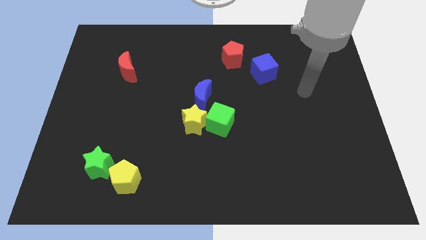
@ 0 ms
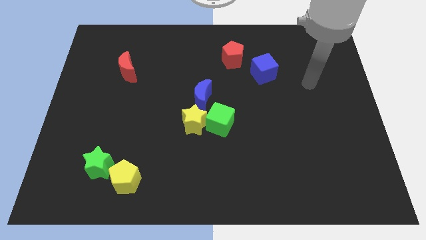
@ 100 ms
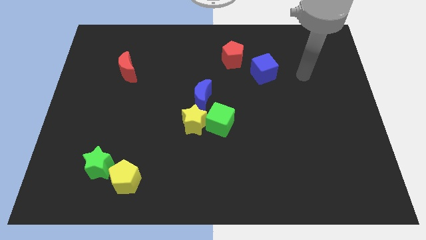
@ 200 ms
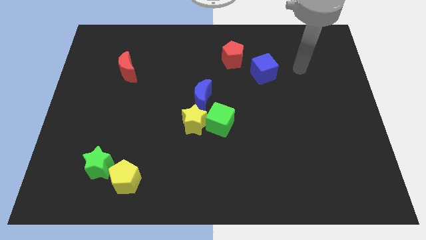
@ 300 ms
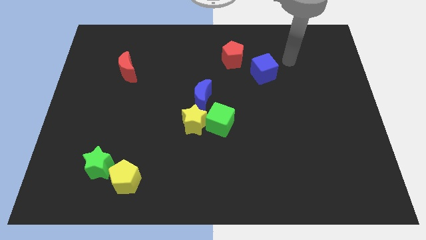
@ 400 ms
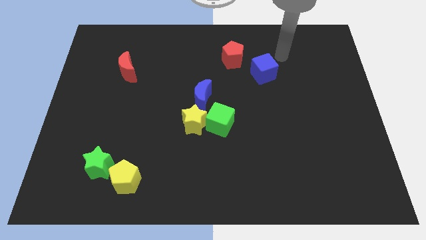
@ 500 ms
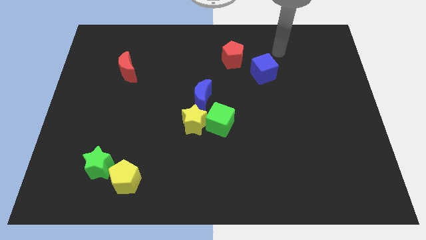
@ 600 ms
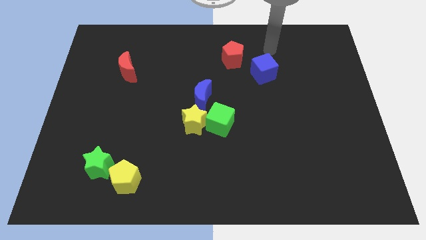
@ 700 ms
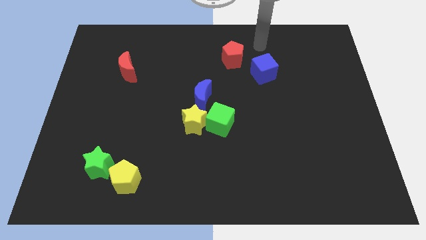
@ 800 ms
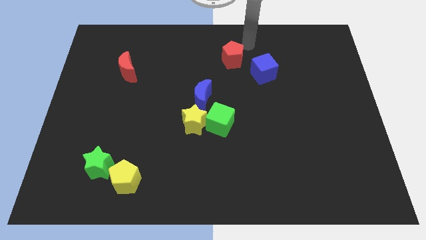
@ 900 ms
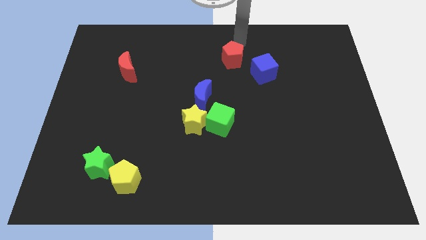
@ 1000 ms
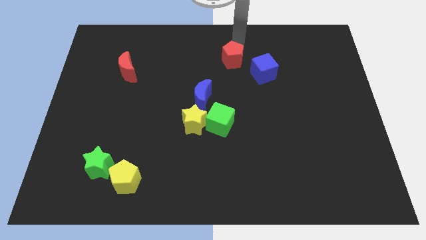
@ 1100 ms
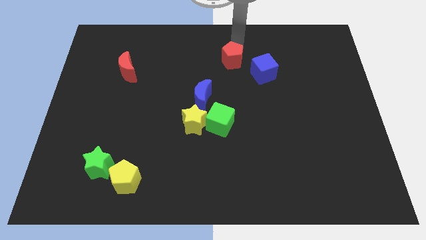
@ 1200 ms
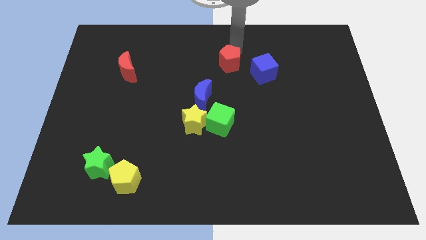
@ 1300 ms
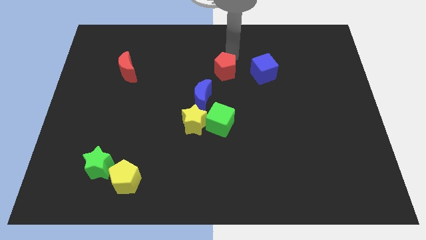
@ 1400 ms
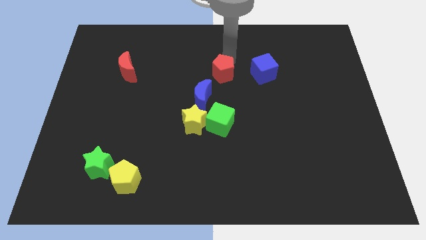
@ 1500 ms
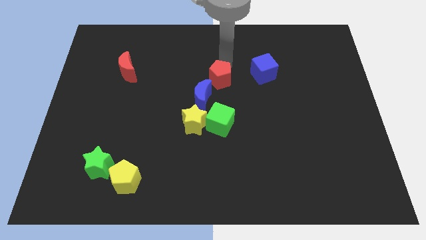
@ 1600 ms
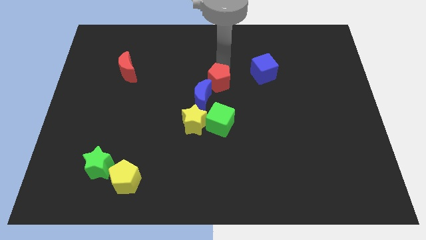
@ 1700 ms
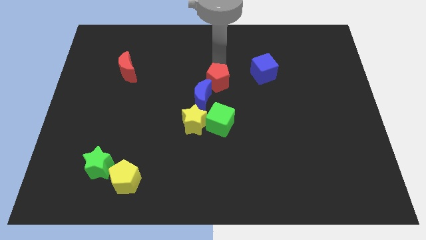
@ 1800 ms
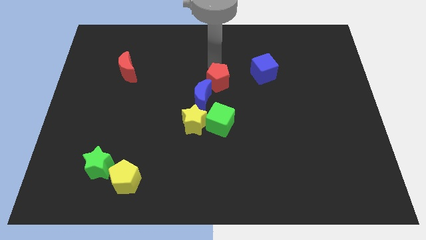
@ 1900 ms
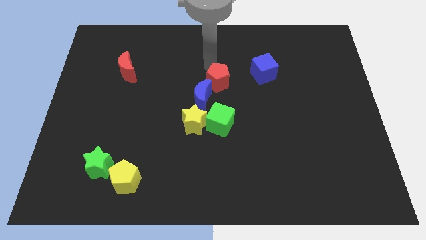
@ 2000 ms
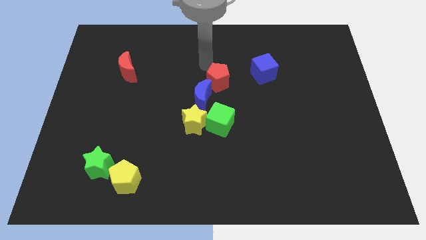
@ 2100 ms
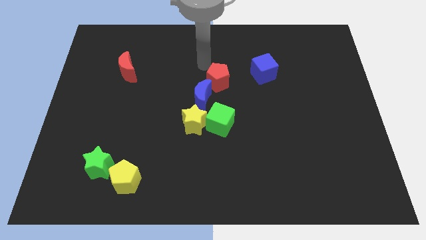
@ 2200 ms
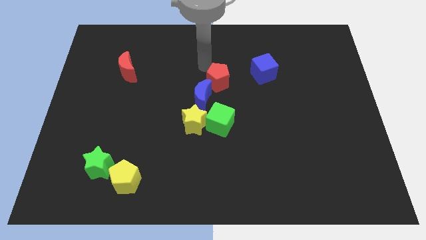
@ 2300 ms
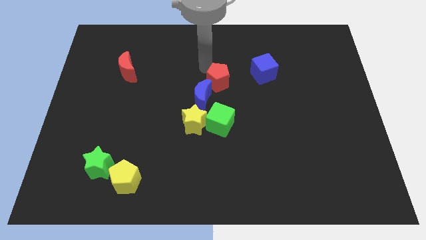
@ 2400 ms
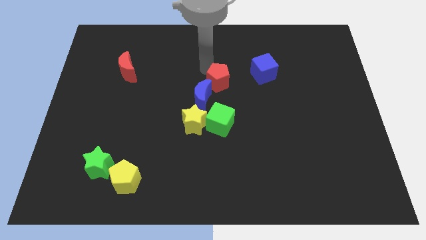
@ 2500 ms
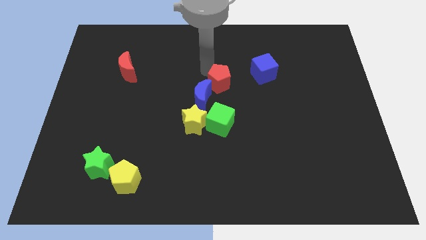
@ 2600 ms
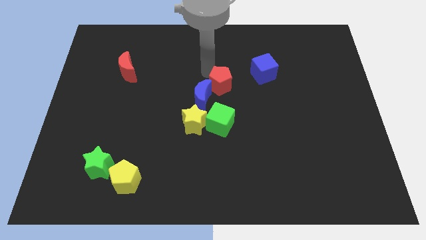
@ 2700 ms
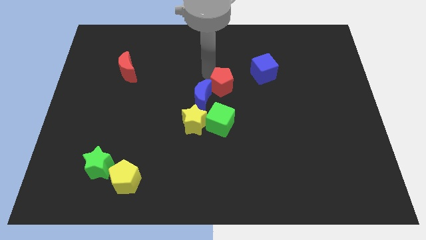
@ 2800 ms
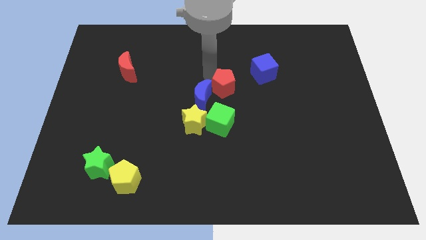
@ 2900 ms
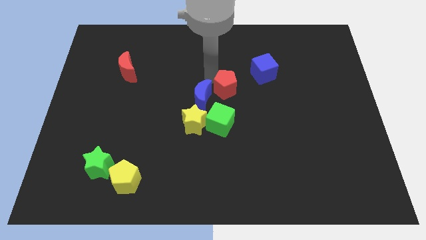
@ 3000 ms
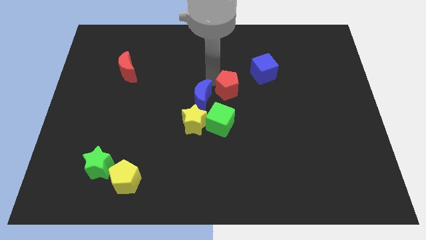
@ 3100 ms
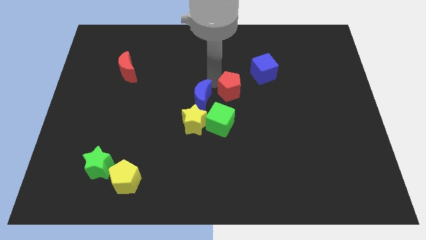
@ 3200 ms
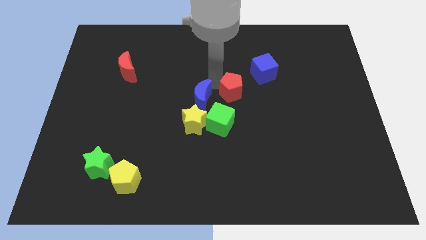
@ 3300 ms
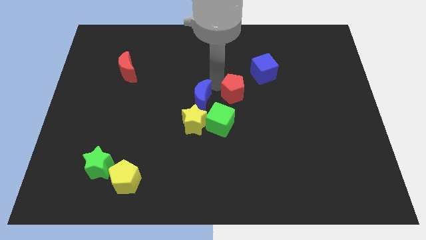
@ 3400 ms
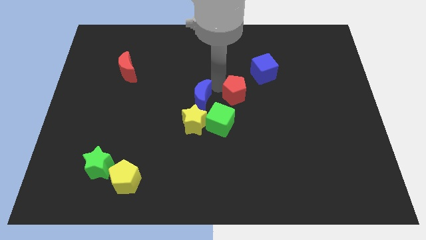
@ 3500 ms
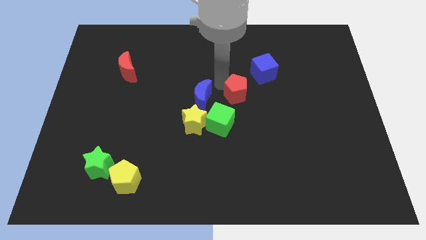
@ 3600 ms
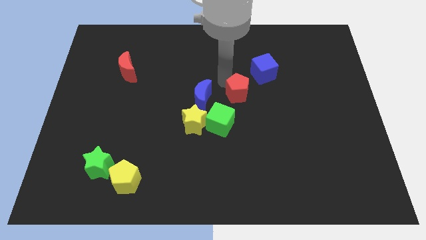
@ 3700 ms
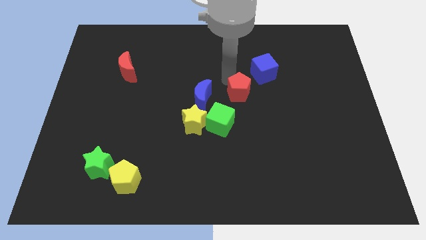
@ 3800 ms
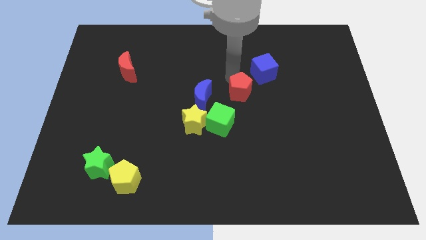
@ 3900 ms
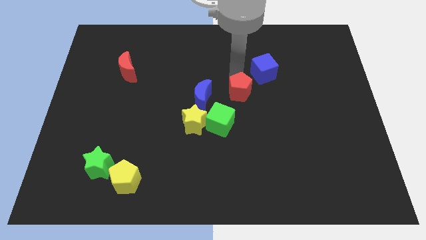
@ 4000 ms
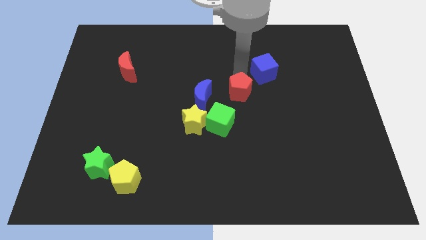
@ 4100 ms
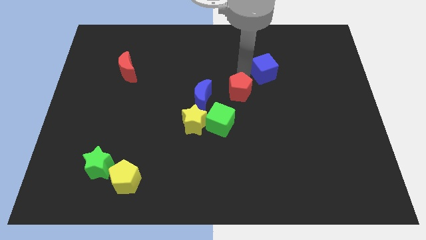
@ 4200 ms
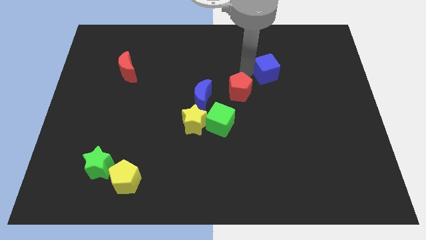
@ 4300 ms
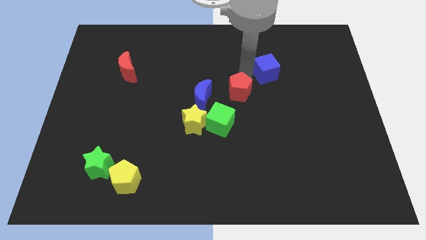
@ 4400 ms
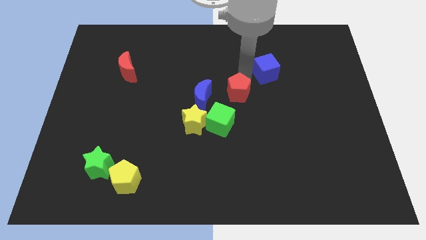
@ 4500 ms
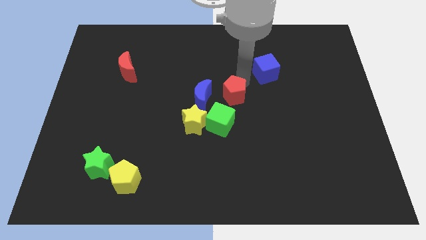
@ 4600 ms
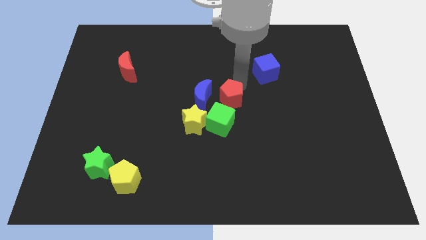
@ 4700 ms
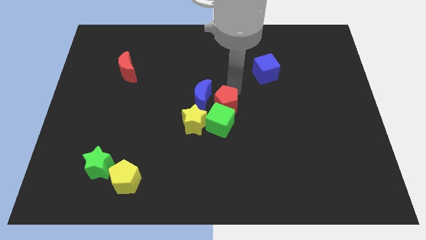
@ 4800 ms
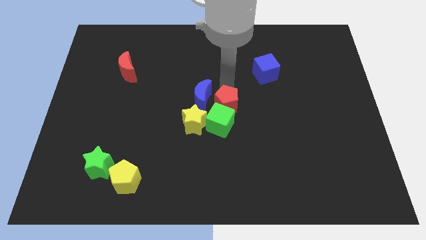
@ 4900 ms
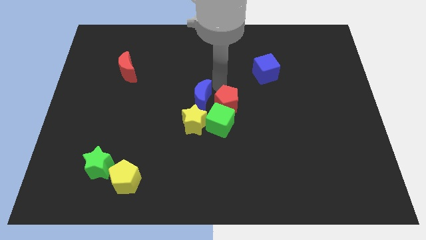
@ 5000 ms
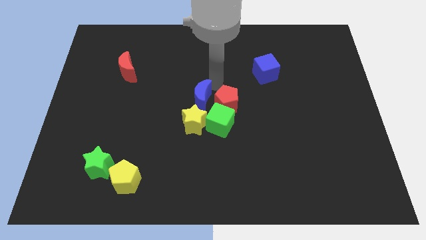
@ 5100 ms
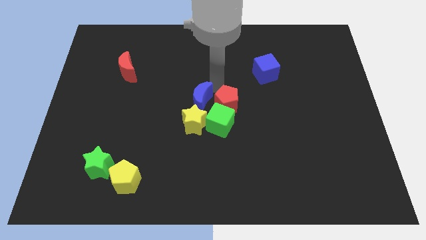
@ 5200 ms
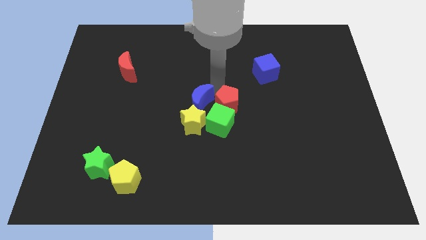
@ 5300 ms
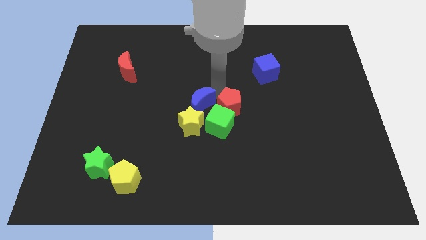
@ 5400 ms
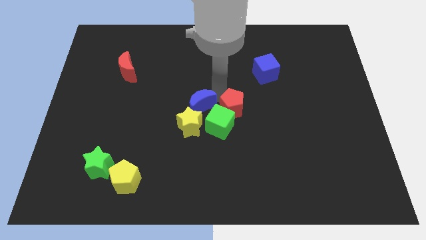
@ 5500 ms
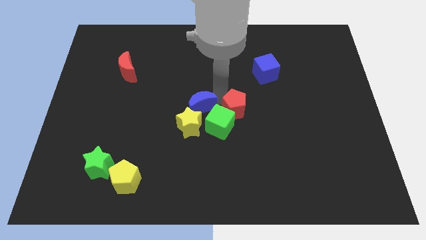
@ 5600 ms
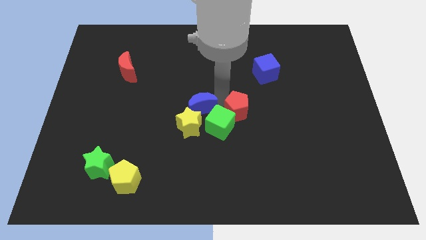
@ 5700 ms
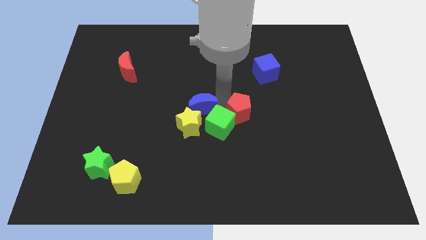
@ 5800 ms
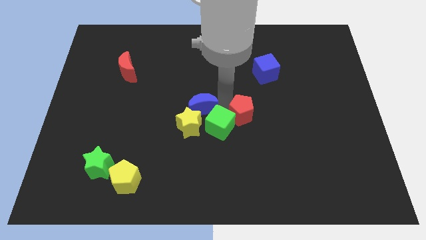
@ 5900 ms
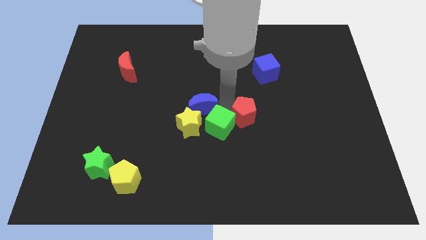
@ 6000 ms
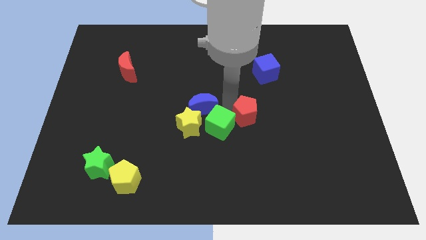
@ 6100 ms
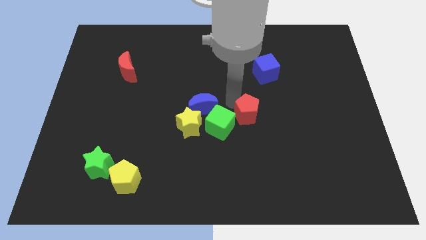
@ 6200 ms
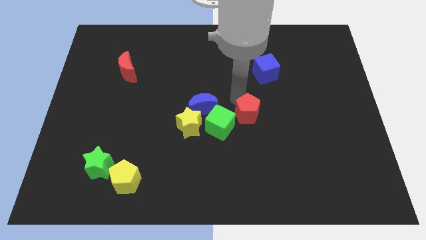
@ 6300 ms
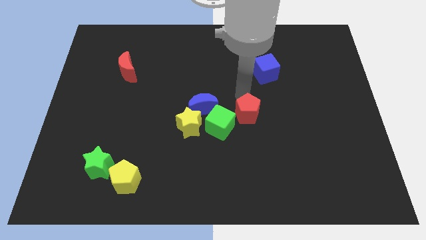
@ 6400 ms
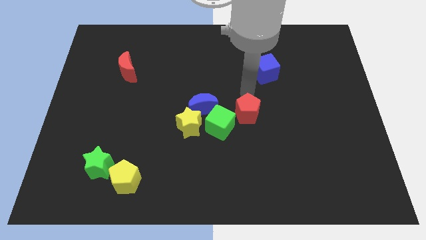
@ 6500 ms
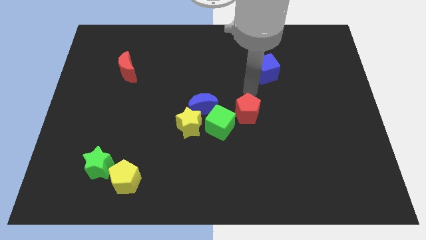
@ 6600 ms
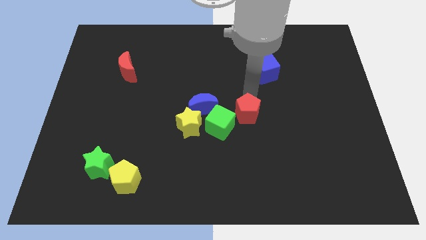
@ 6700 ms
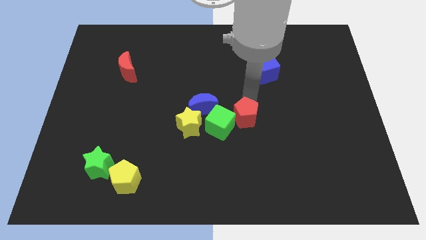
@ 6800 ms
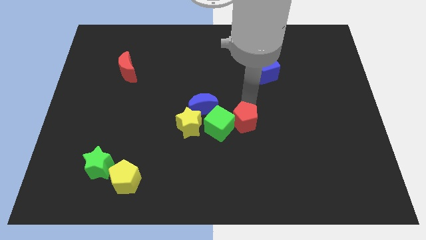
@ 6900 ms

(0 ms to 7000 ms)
slide the red pentagon down

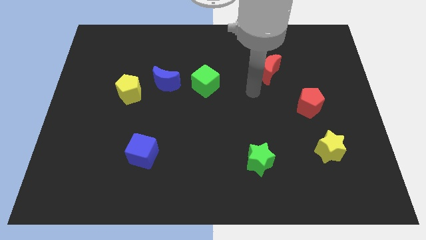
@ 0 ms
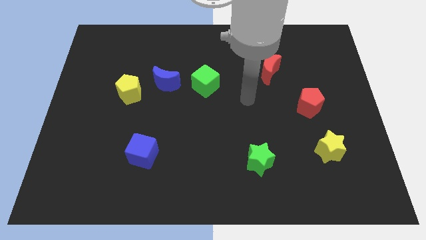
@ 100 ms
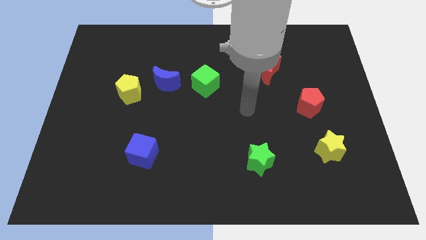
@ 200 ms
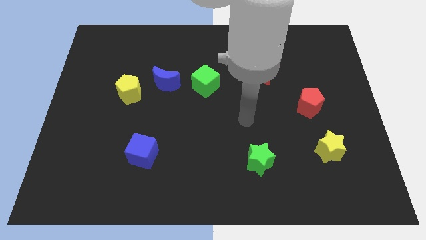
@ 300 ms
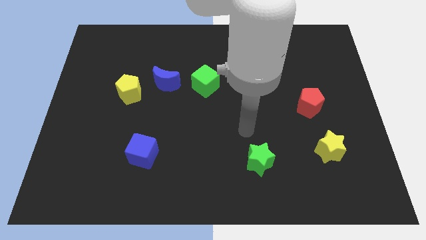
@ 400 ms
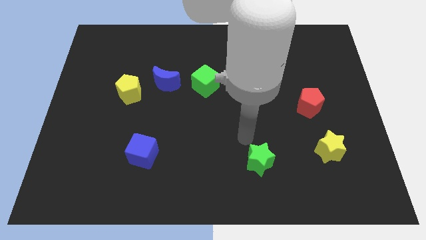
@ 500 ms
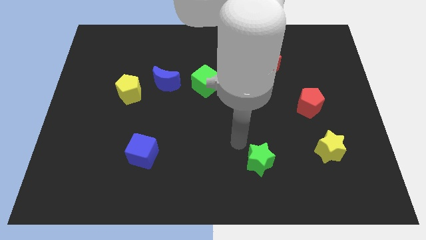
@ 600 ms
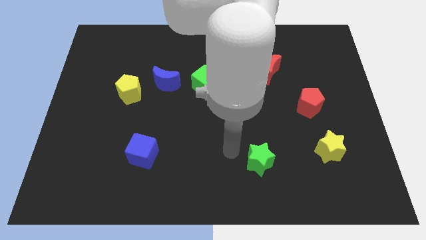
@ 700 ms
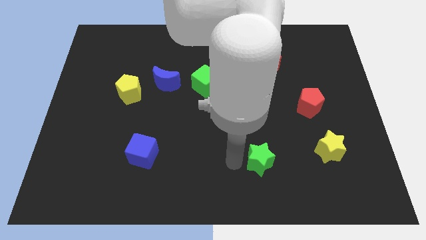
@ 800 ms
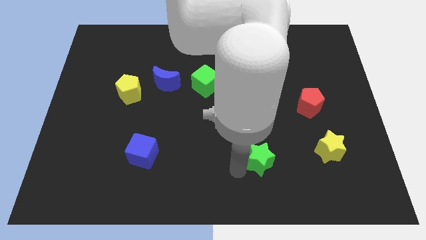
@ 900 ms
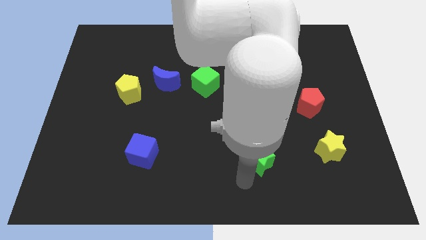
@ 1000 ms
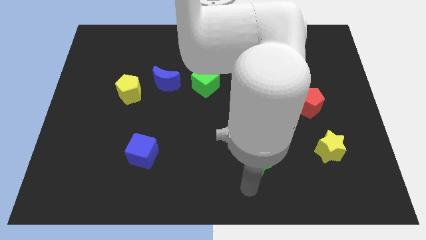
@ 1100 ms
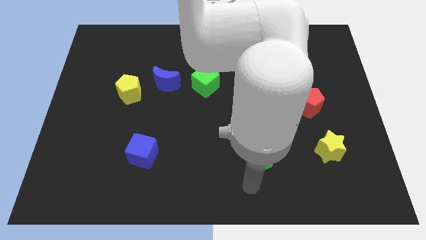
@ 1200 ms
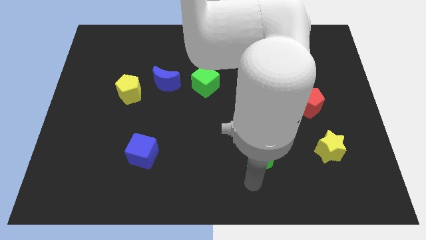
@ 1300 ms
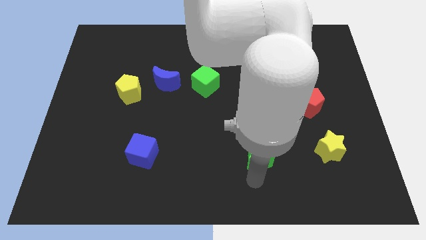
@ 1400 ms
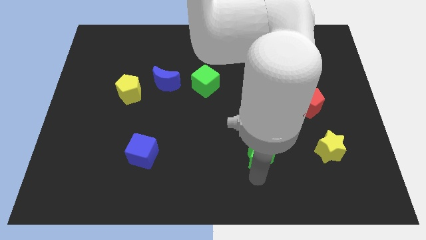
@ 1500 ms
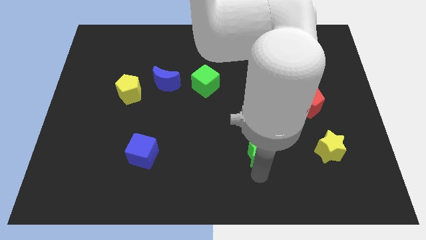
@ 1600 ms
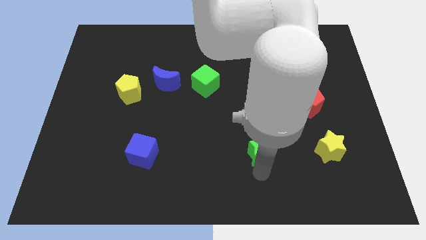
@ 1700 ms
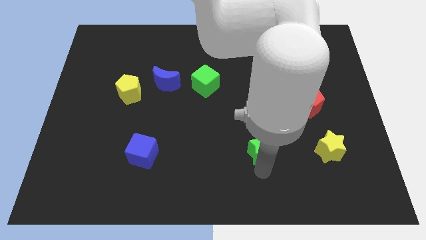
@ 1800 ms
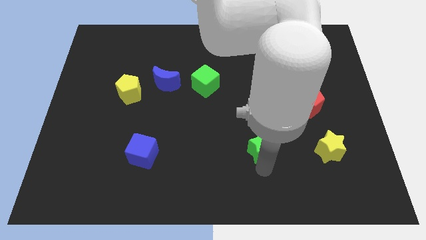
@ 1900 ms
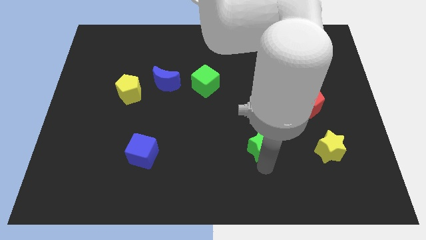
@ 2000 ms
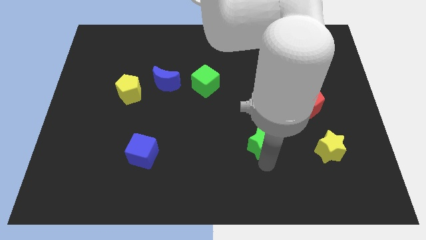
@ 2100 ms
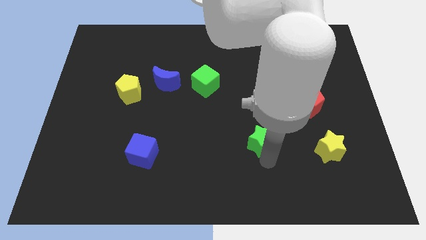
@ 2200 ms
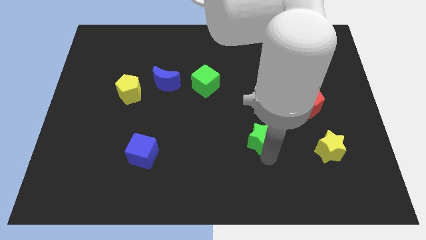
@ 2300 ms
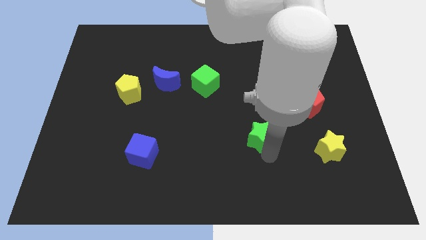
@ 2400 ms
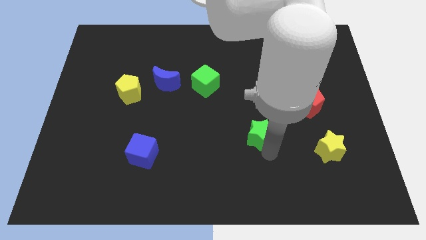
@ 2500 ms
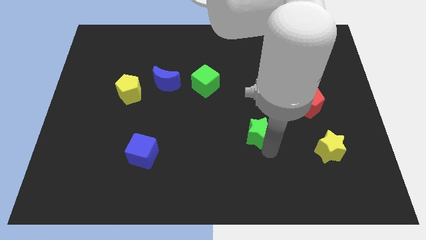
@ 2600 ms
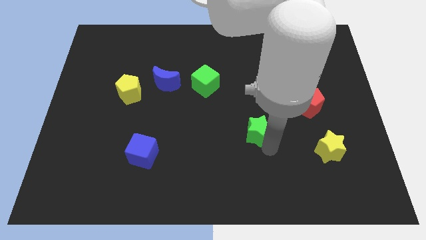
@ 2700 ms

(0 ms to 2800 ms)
slide the green star upwards a little
